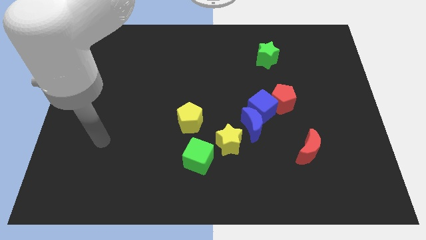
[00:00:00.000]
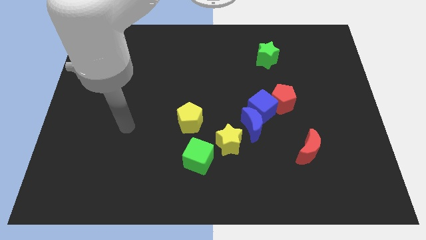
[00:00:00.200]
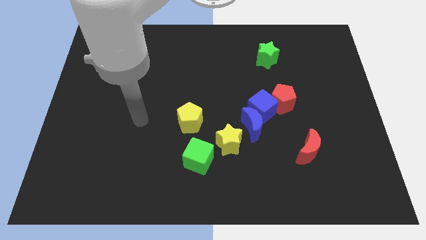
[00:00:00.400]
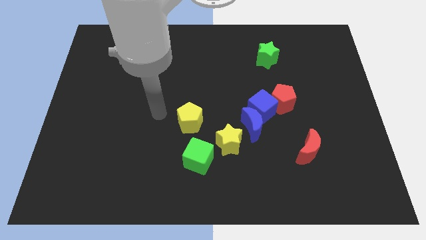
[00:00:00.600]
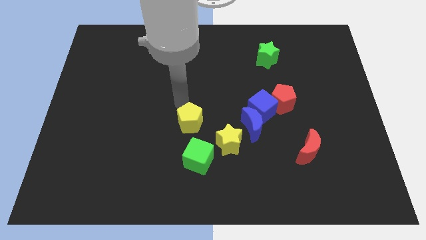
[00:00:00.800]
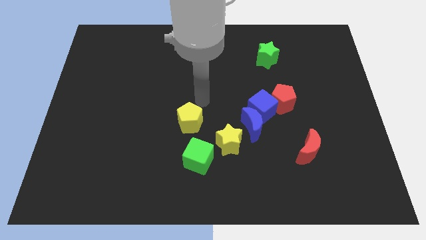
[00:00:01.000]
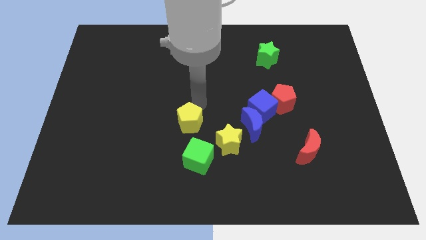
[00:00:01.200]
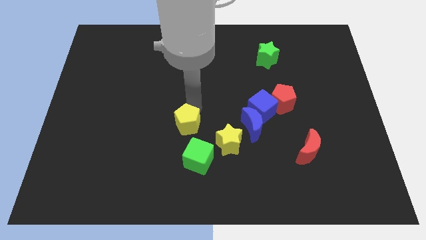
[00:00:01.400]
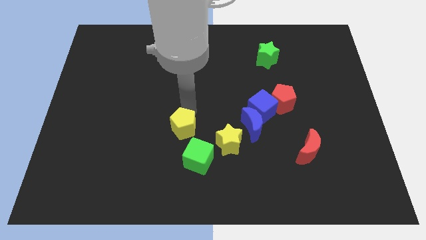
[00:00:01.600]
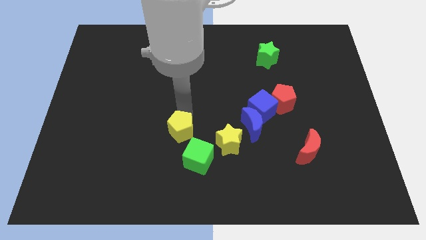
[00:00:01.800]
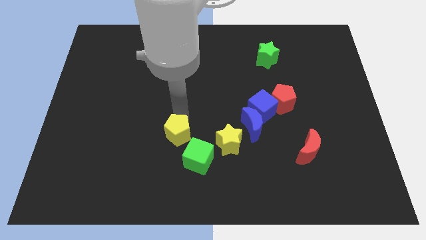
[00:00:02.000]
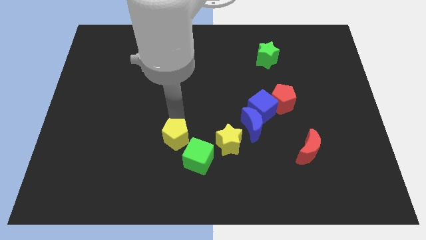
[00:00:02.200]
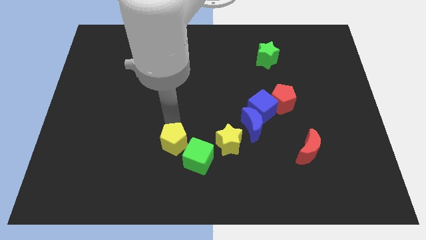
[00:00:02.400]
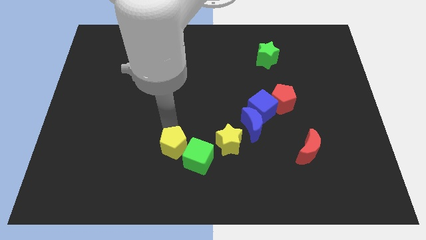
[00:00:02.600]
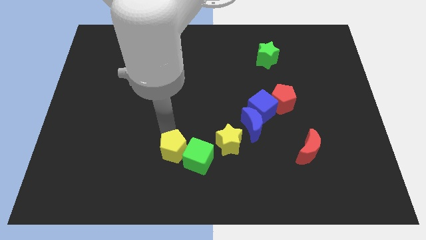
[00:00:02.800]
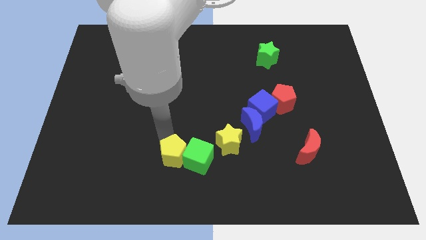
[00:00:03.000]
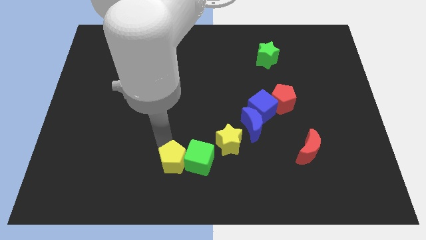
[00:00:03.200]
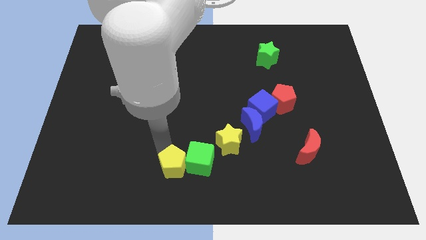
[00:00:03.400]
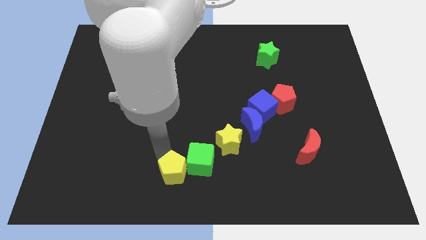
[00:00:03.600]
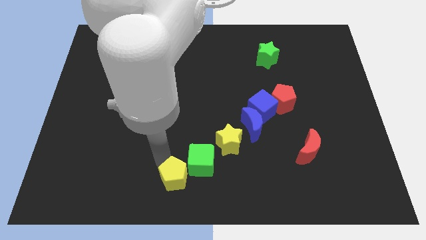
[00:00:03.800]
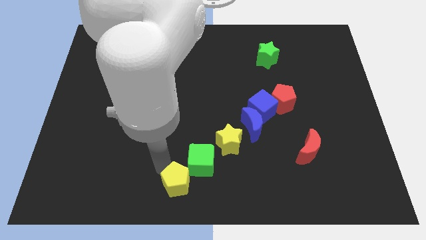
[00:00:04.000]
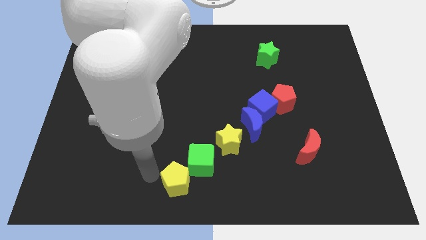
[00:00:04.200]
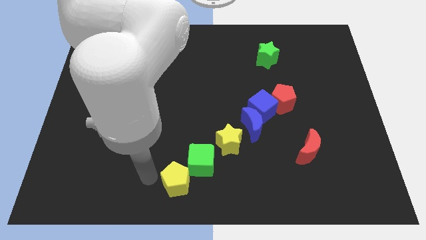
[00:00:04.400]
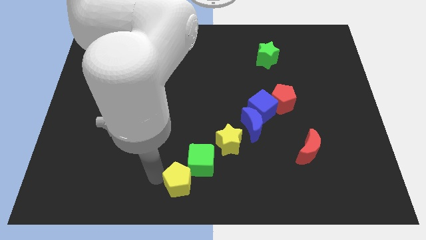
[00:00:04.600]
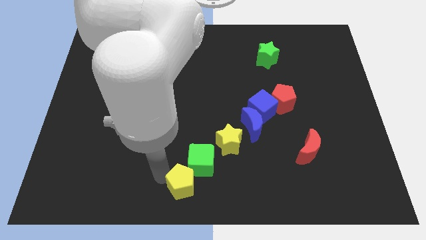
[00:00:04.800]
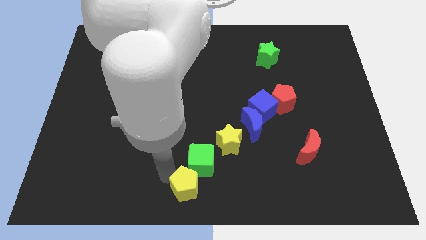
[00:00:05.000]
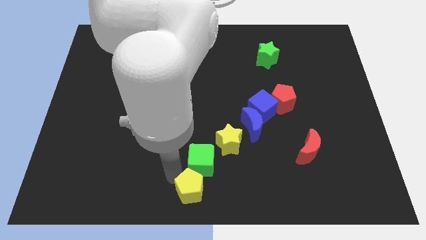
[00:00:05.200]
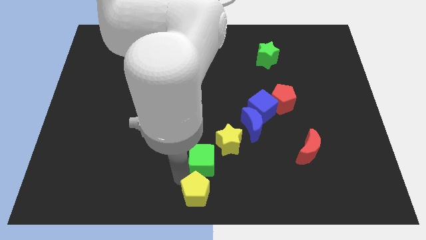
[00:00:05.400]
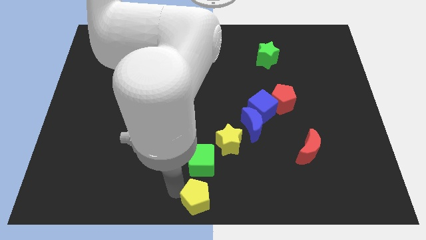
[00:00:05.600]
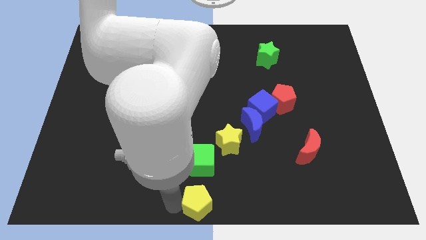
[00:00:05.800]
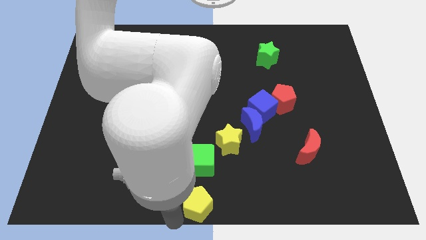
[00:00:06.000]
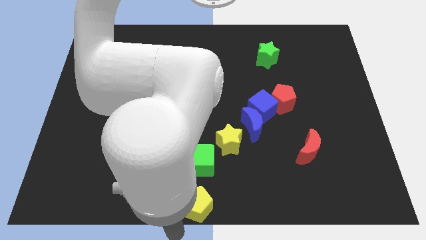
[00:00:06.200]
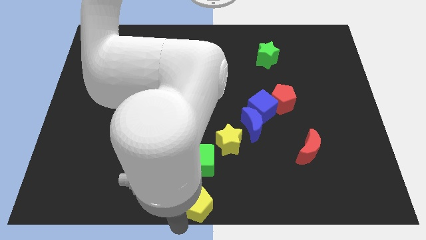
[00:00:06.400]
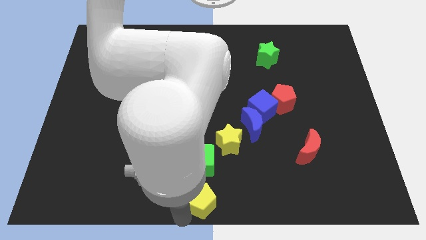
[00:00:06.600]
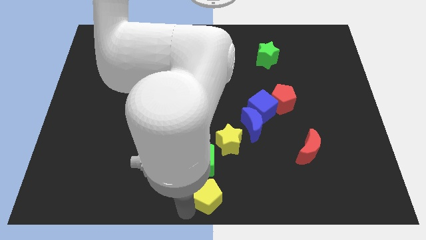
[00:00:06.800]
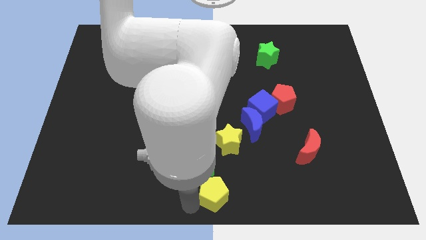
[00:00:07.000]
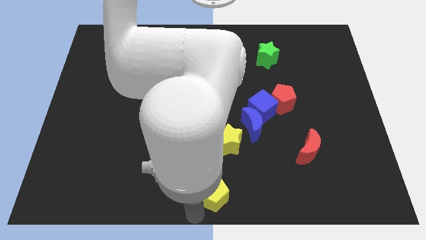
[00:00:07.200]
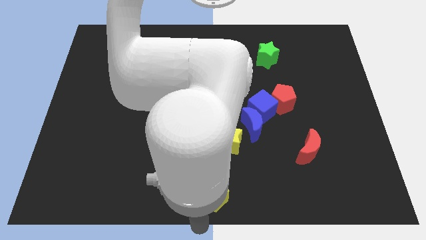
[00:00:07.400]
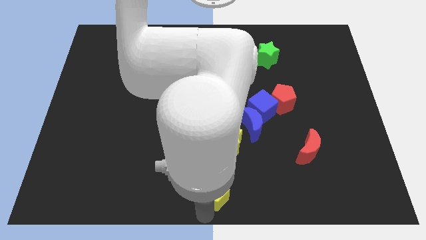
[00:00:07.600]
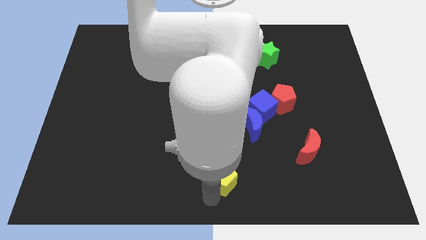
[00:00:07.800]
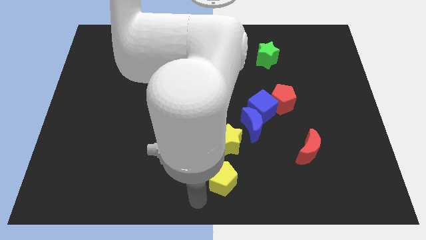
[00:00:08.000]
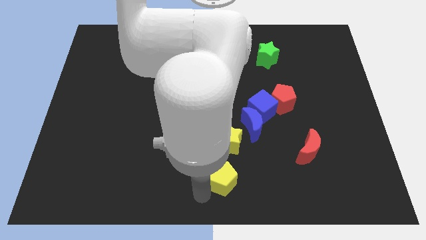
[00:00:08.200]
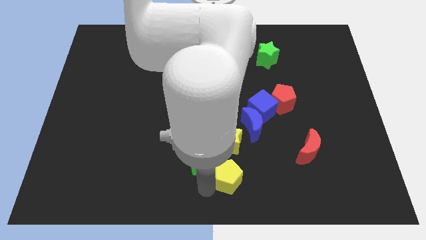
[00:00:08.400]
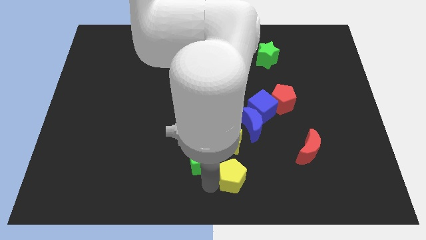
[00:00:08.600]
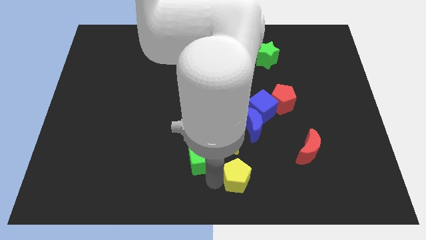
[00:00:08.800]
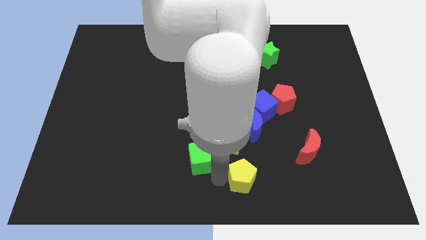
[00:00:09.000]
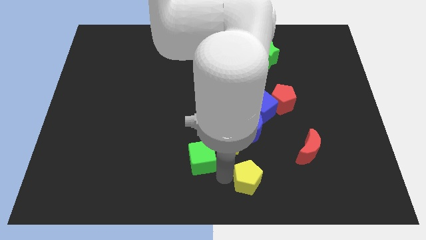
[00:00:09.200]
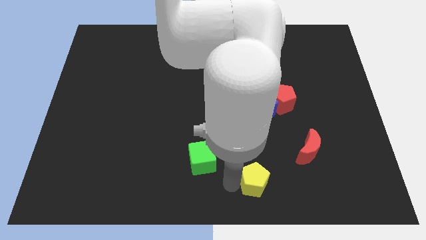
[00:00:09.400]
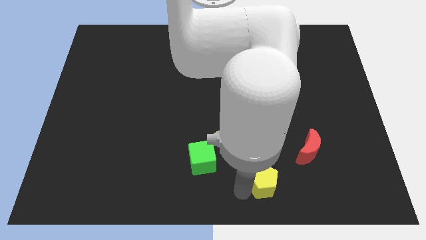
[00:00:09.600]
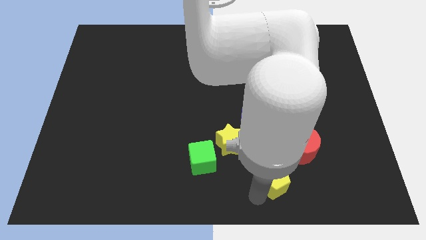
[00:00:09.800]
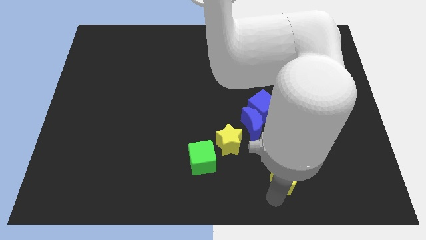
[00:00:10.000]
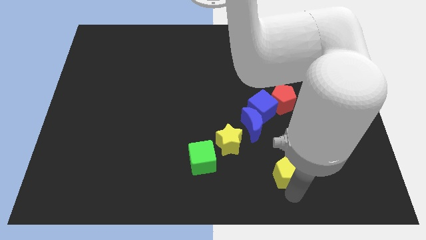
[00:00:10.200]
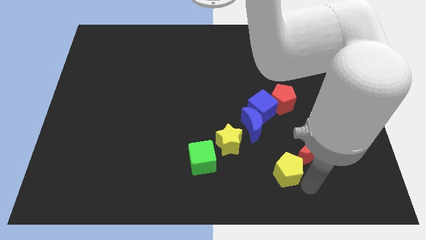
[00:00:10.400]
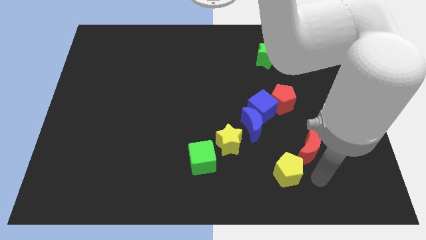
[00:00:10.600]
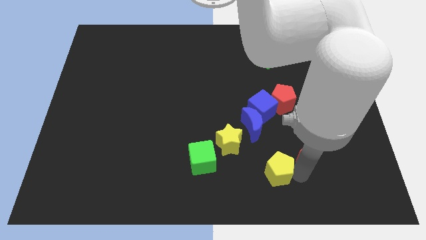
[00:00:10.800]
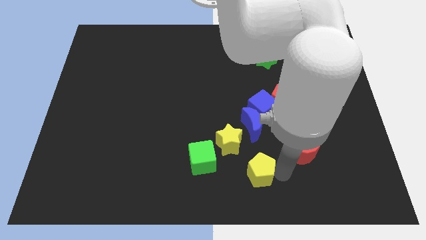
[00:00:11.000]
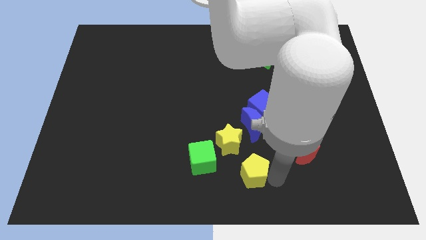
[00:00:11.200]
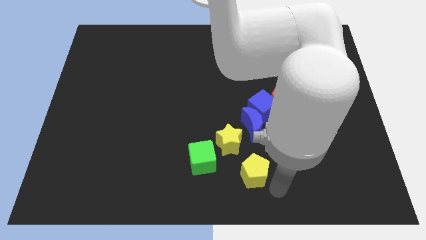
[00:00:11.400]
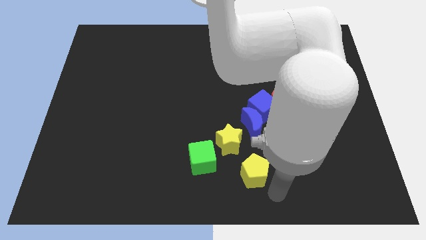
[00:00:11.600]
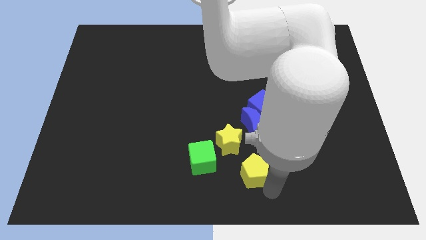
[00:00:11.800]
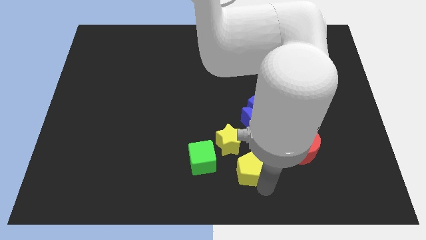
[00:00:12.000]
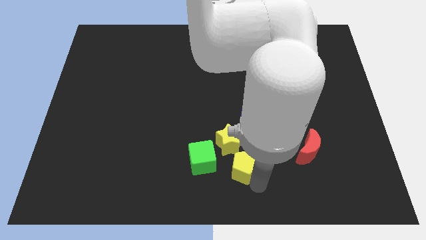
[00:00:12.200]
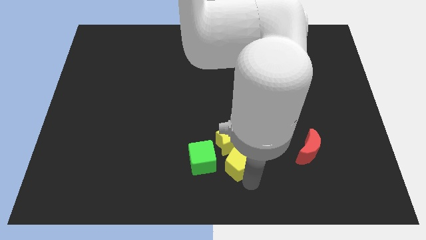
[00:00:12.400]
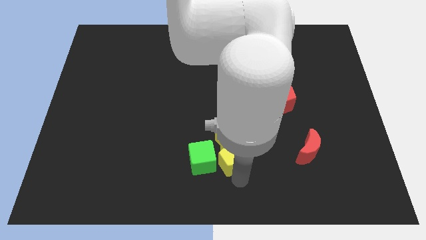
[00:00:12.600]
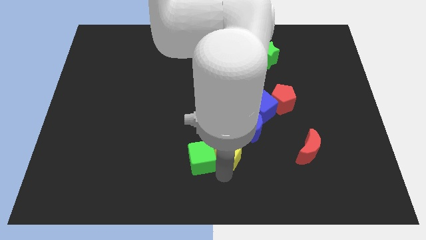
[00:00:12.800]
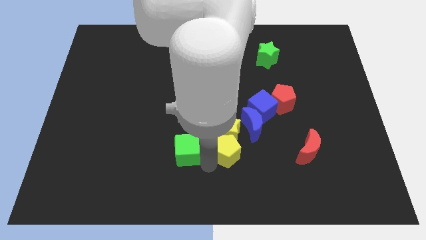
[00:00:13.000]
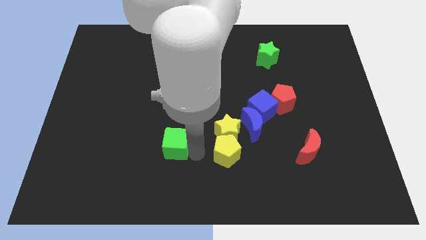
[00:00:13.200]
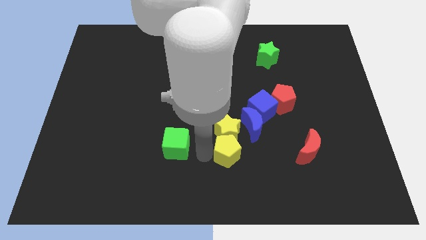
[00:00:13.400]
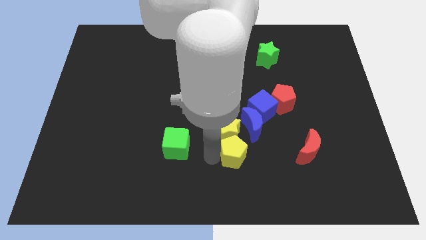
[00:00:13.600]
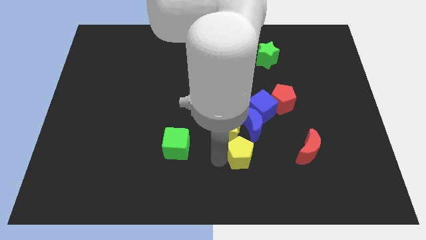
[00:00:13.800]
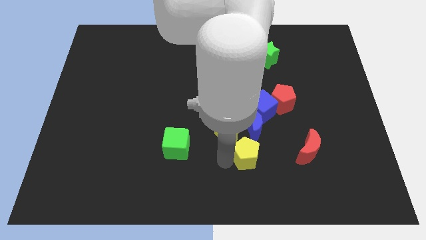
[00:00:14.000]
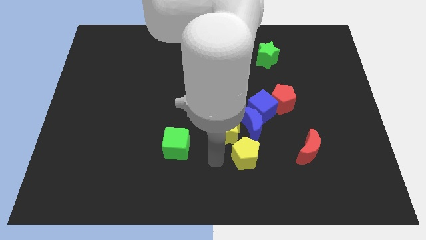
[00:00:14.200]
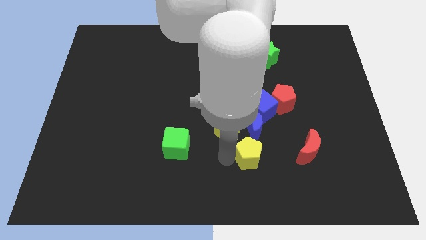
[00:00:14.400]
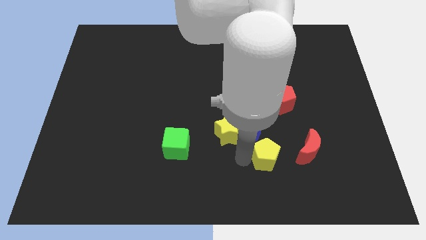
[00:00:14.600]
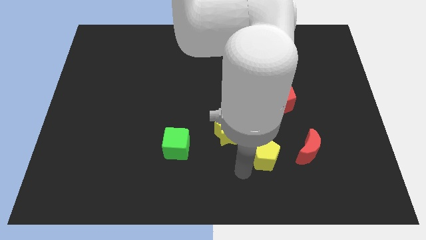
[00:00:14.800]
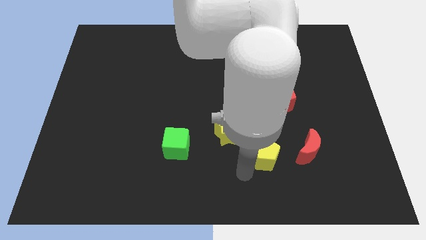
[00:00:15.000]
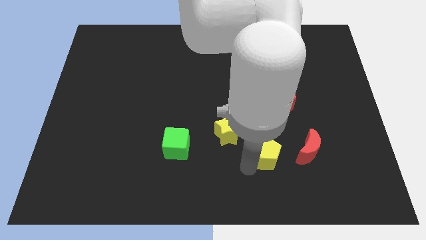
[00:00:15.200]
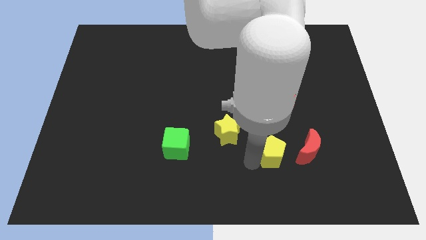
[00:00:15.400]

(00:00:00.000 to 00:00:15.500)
slide the yellow pentagon to the bottom side of the red pentagon
